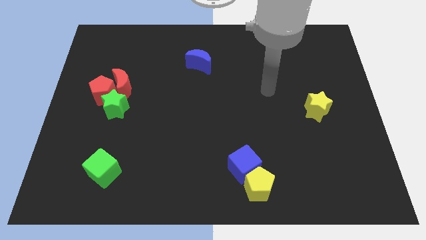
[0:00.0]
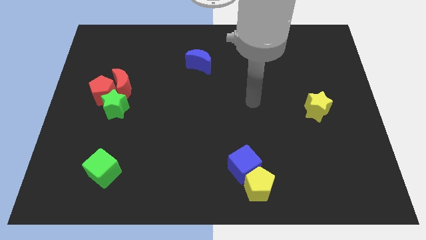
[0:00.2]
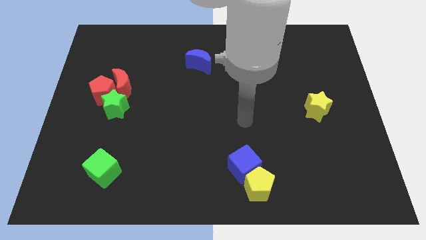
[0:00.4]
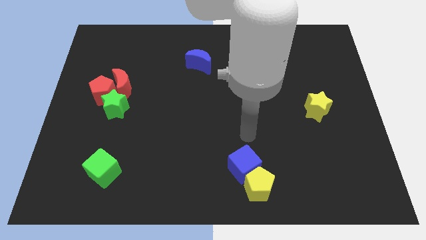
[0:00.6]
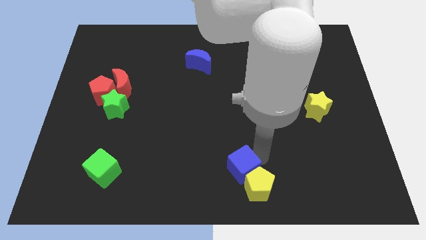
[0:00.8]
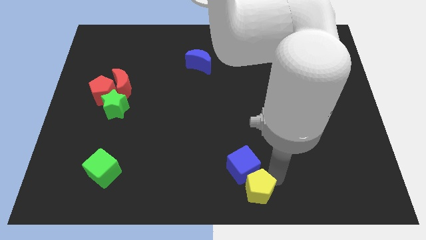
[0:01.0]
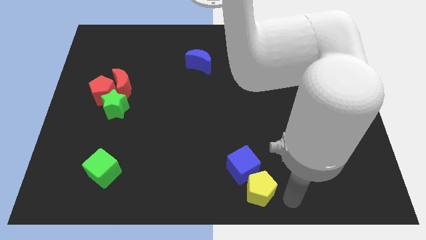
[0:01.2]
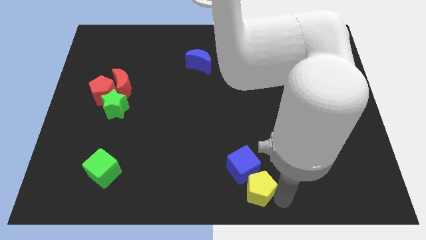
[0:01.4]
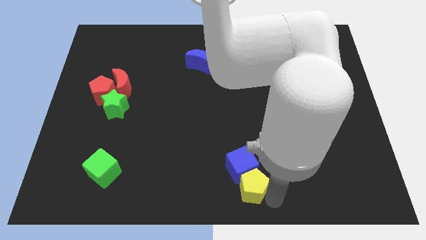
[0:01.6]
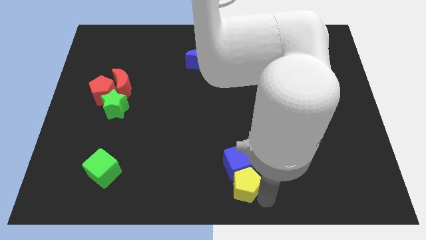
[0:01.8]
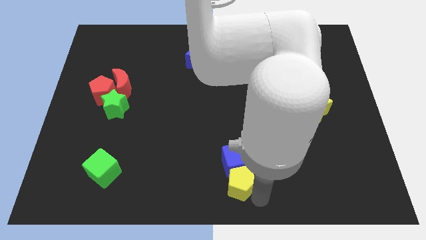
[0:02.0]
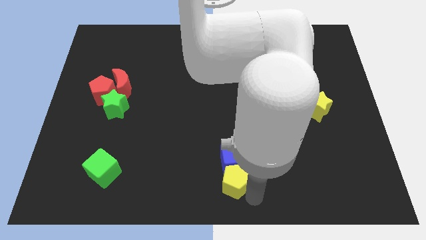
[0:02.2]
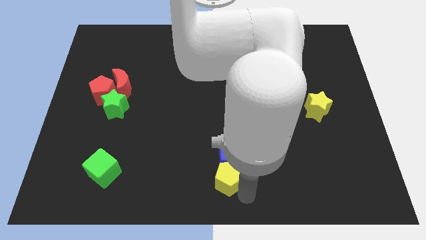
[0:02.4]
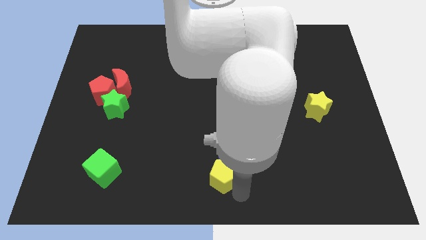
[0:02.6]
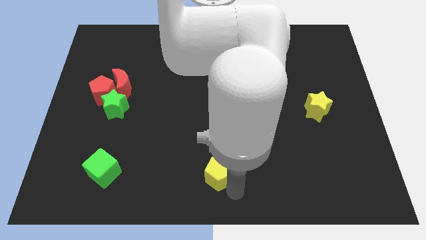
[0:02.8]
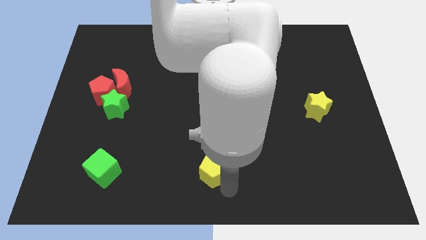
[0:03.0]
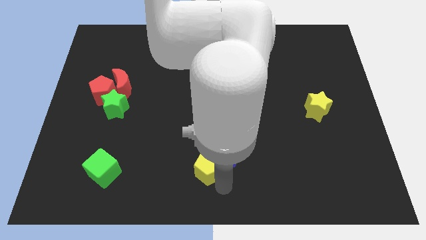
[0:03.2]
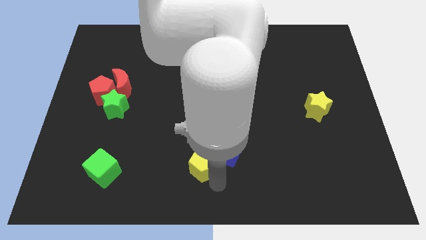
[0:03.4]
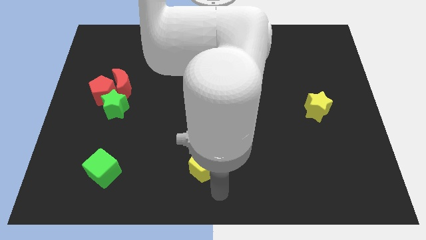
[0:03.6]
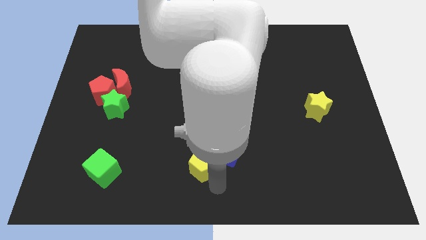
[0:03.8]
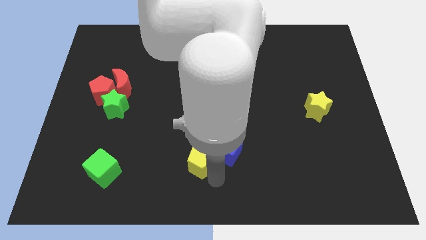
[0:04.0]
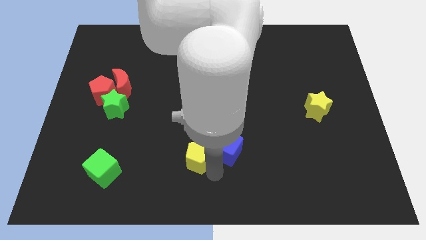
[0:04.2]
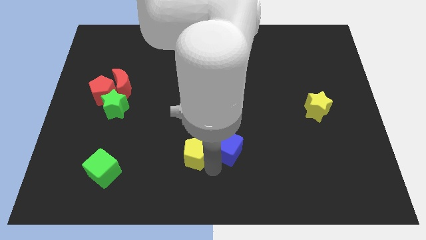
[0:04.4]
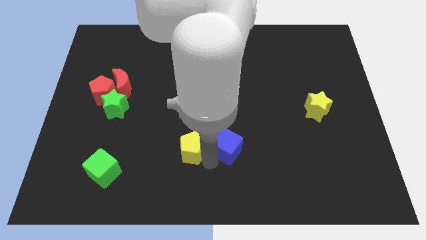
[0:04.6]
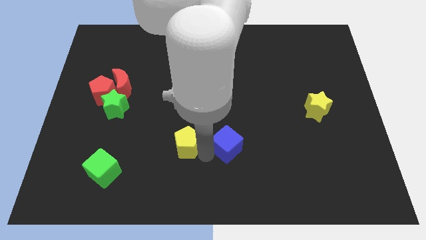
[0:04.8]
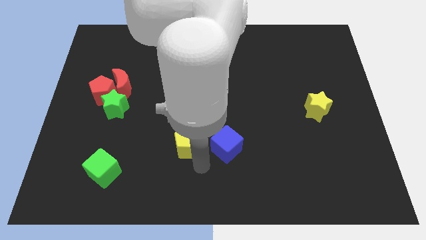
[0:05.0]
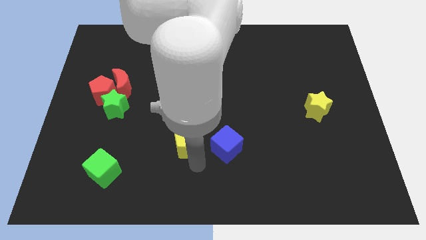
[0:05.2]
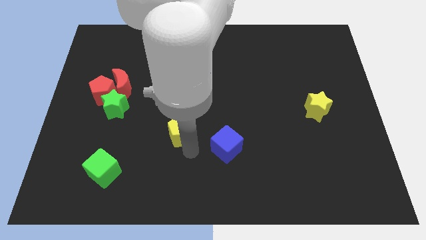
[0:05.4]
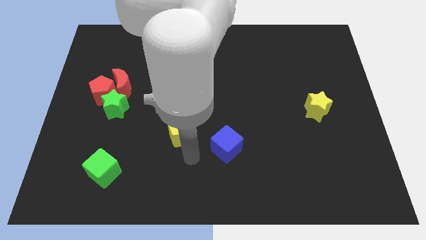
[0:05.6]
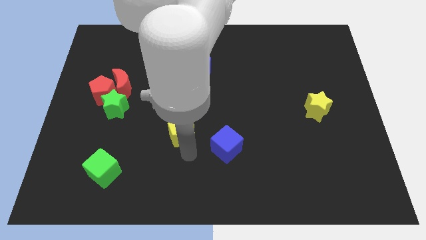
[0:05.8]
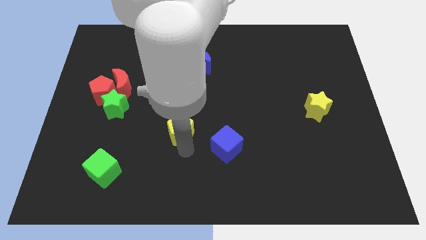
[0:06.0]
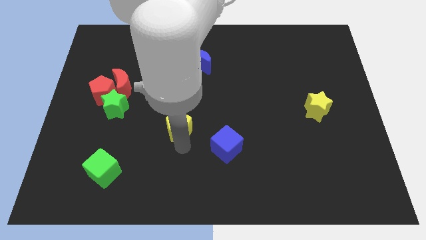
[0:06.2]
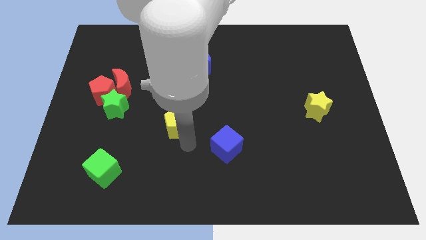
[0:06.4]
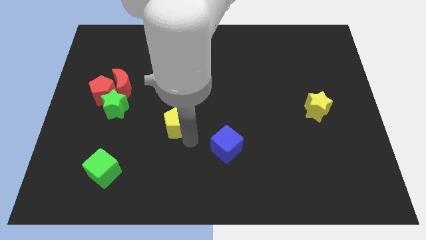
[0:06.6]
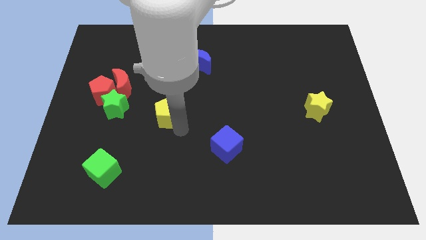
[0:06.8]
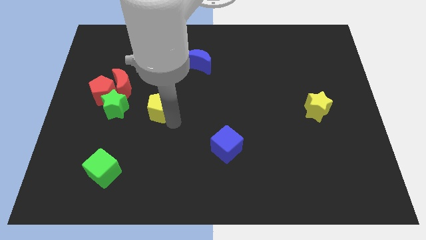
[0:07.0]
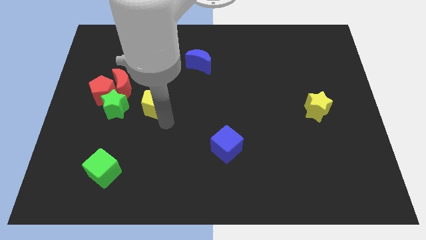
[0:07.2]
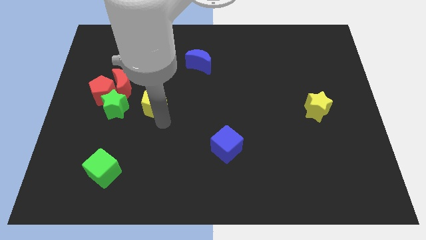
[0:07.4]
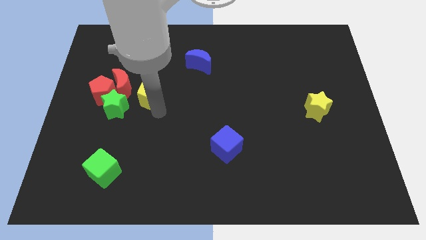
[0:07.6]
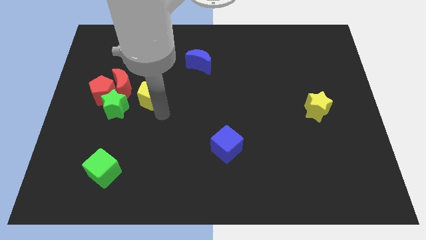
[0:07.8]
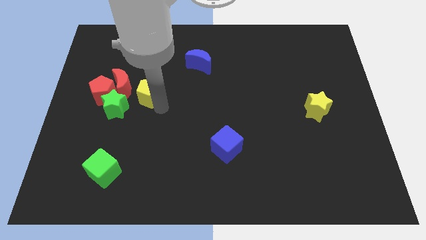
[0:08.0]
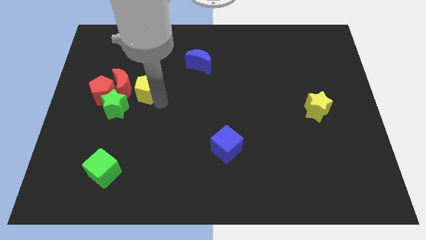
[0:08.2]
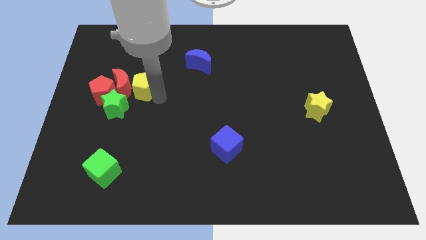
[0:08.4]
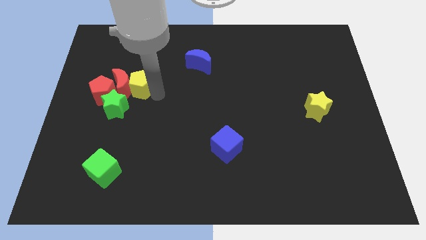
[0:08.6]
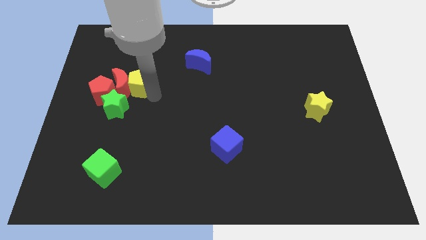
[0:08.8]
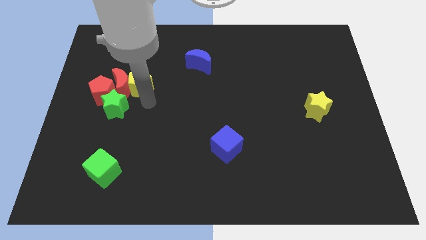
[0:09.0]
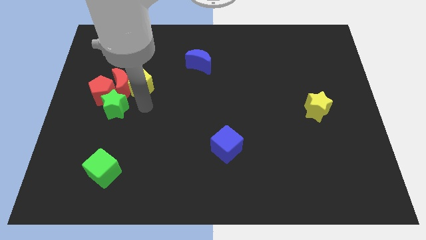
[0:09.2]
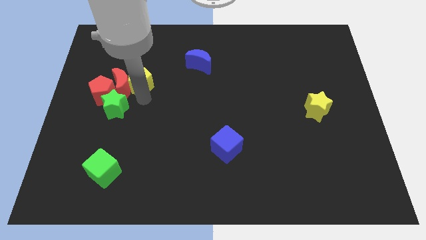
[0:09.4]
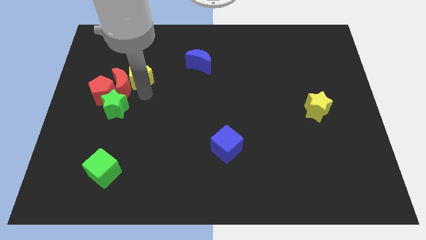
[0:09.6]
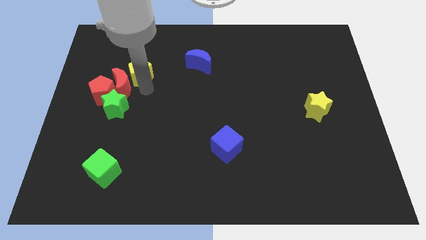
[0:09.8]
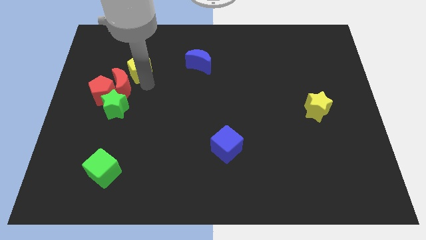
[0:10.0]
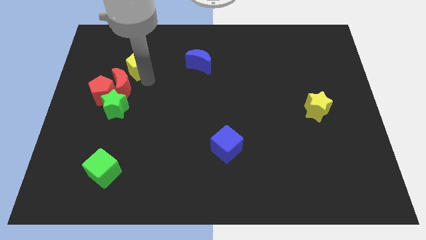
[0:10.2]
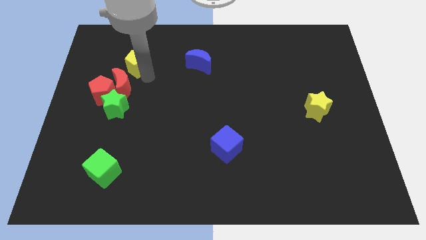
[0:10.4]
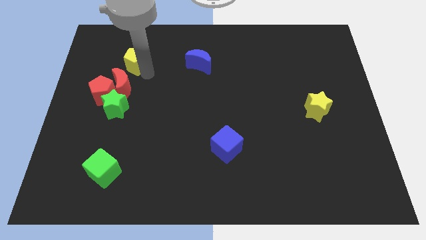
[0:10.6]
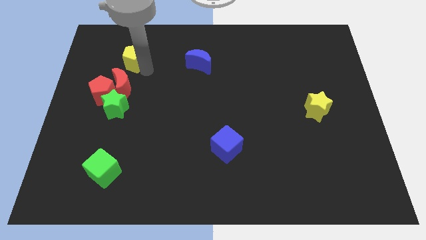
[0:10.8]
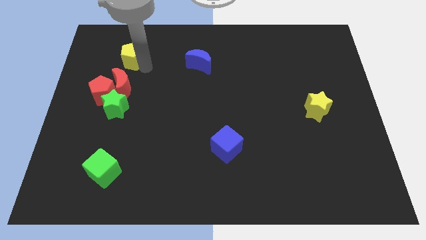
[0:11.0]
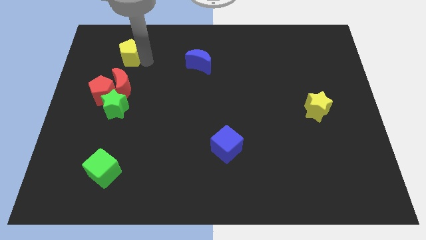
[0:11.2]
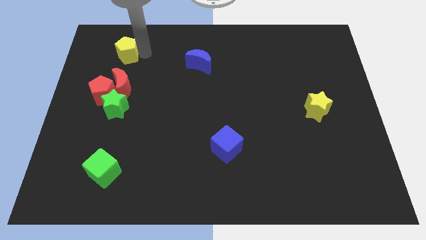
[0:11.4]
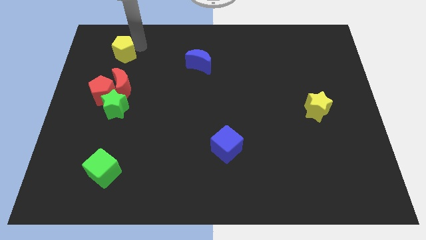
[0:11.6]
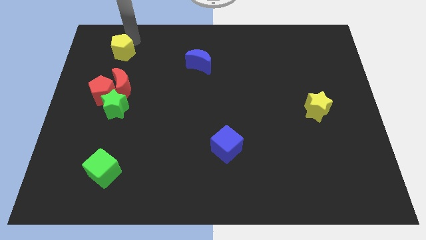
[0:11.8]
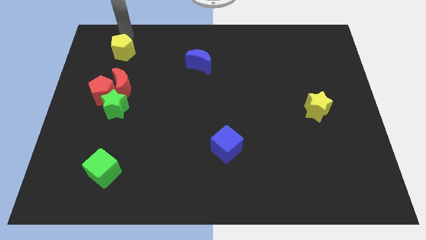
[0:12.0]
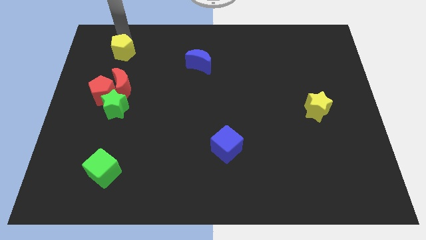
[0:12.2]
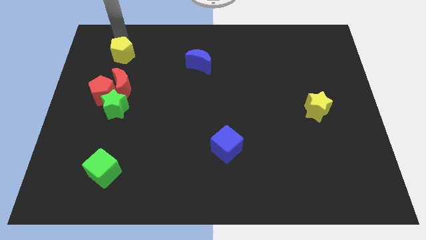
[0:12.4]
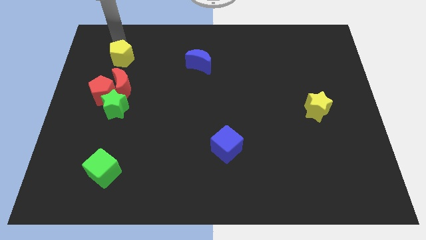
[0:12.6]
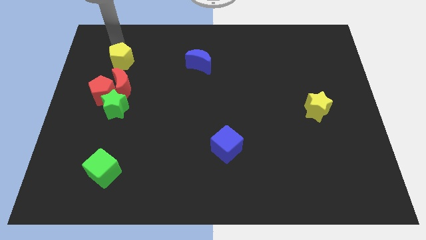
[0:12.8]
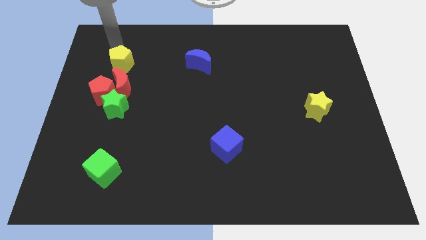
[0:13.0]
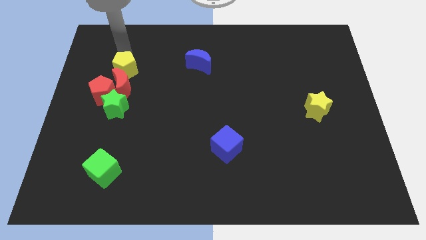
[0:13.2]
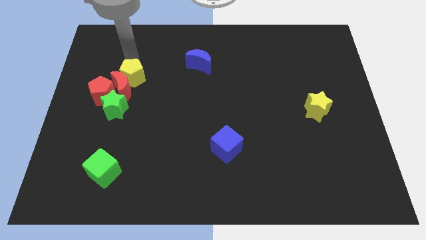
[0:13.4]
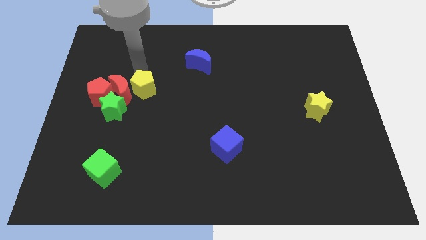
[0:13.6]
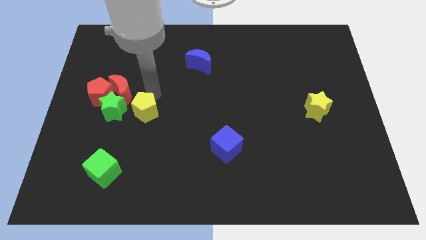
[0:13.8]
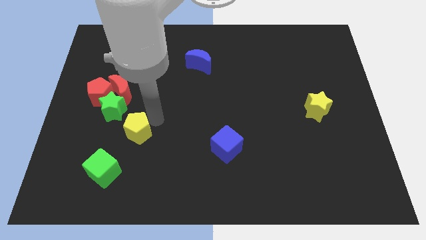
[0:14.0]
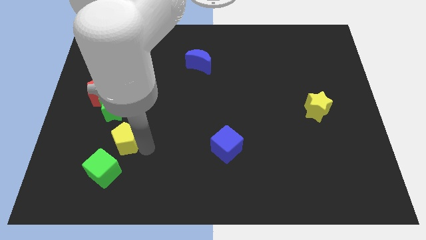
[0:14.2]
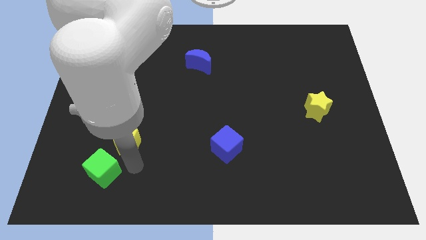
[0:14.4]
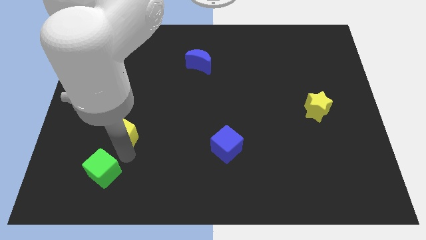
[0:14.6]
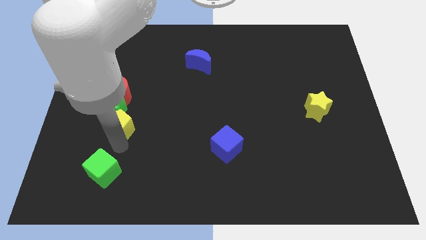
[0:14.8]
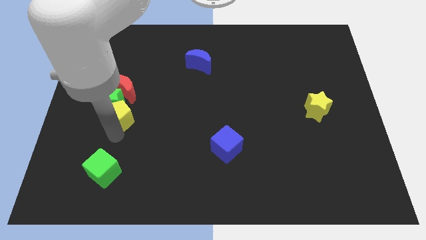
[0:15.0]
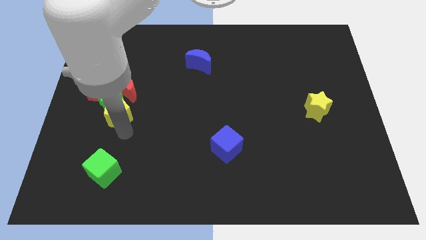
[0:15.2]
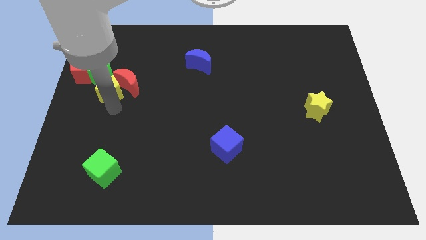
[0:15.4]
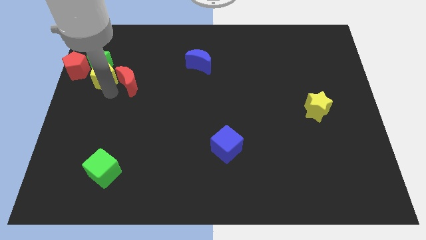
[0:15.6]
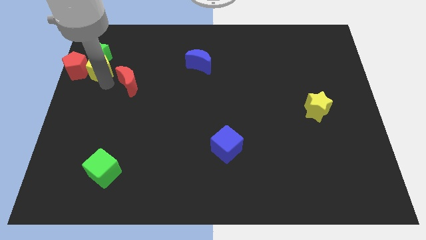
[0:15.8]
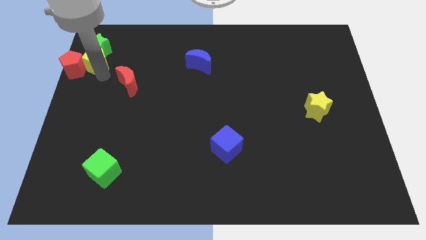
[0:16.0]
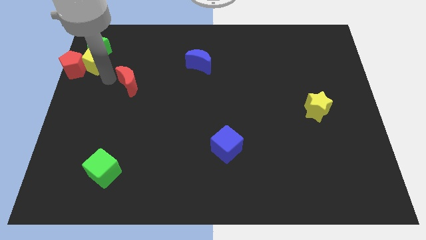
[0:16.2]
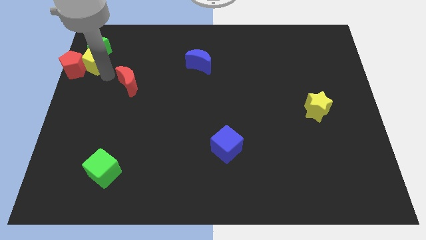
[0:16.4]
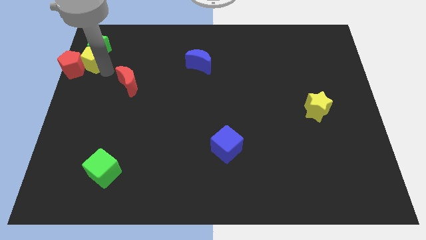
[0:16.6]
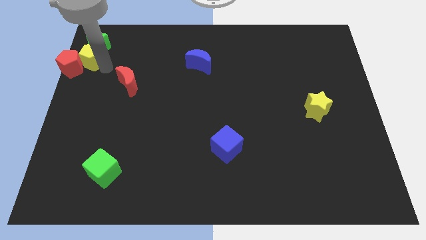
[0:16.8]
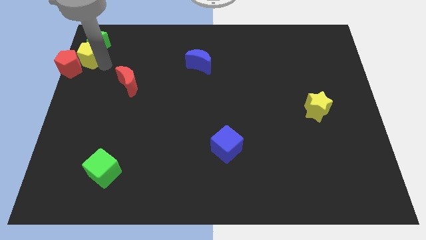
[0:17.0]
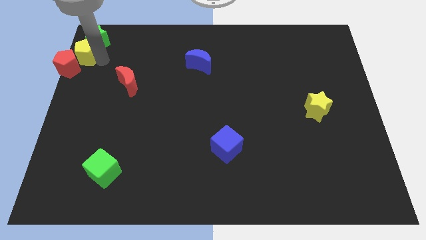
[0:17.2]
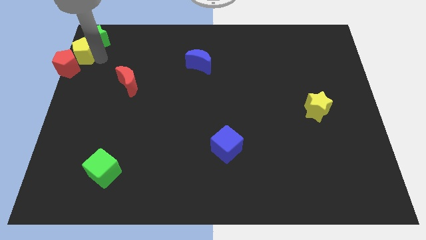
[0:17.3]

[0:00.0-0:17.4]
move the yellow pentagon to the top left of the board
